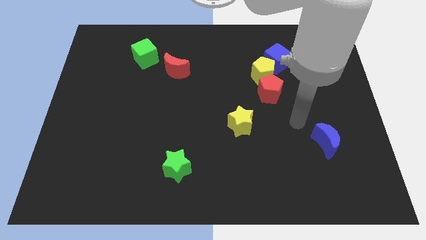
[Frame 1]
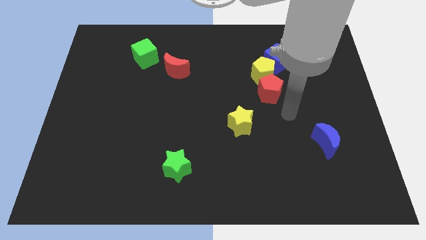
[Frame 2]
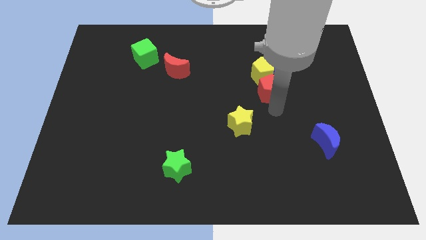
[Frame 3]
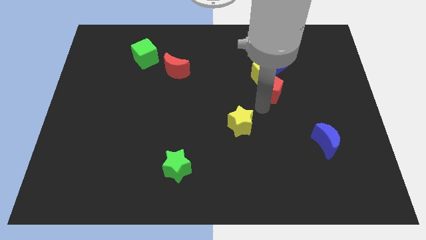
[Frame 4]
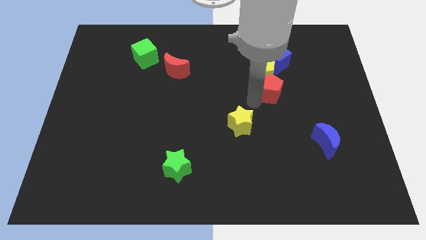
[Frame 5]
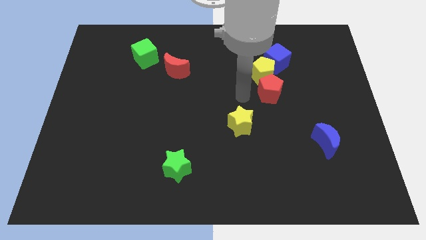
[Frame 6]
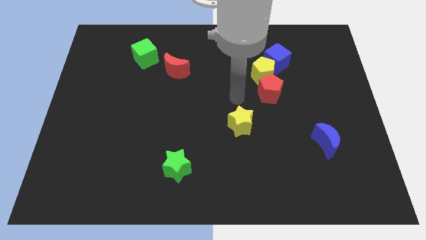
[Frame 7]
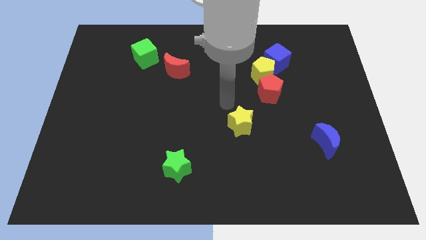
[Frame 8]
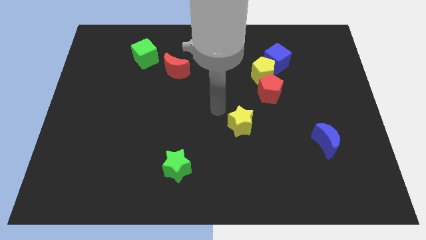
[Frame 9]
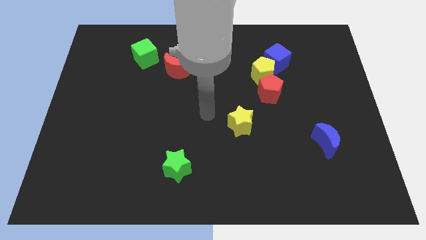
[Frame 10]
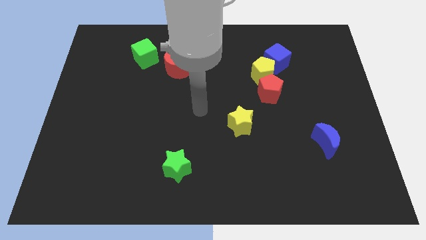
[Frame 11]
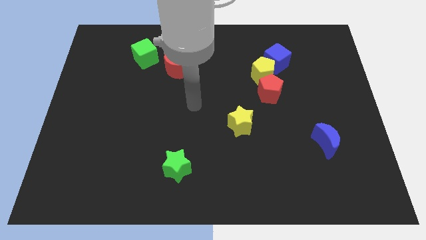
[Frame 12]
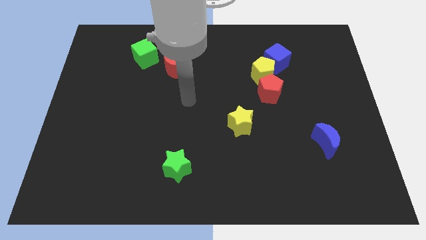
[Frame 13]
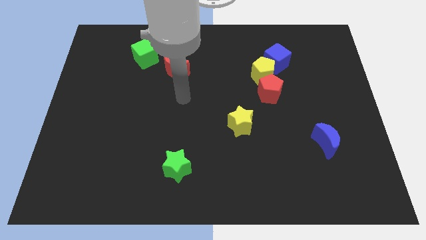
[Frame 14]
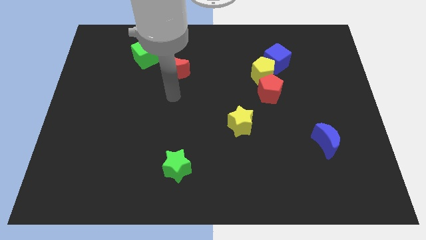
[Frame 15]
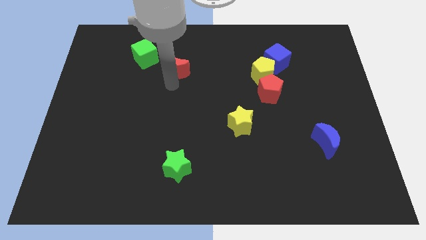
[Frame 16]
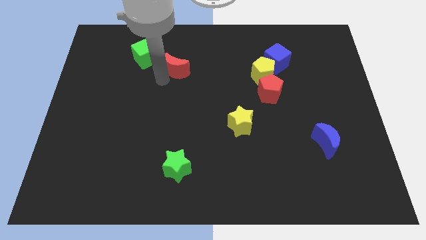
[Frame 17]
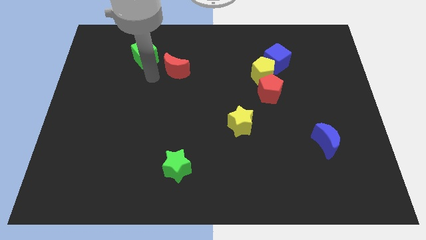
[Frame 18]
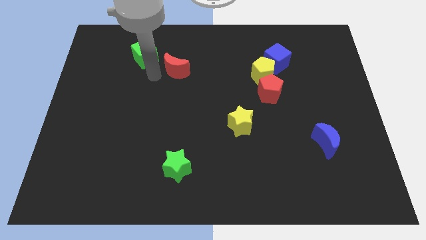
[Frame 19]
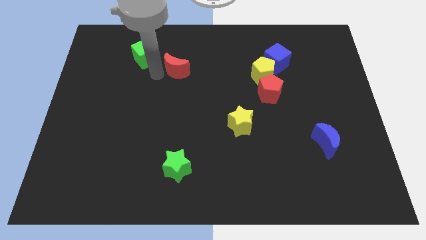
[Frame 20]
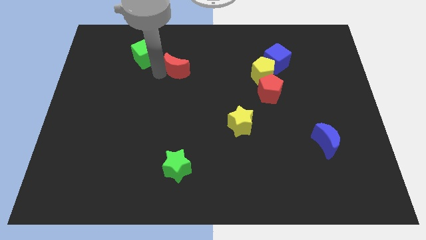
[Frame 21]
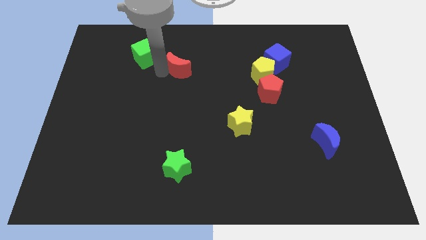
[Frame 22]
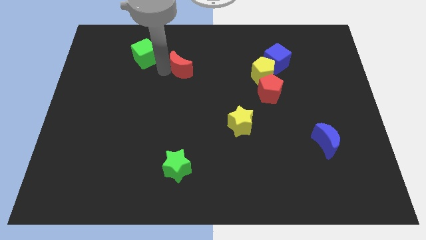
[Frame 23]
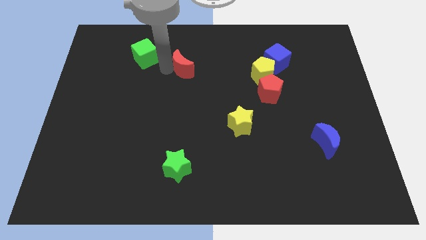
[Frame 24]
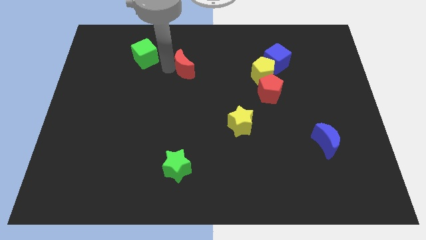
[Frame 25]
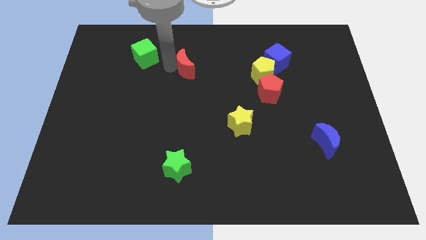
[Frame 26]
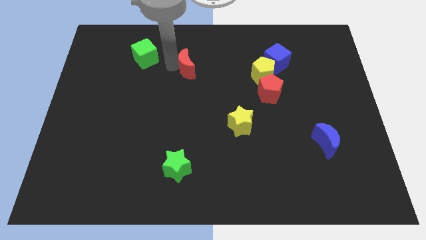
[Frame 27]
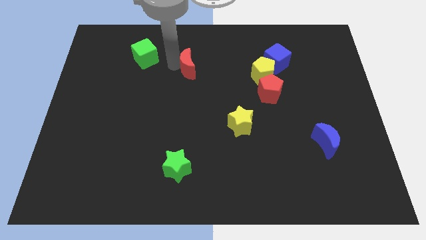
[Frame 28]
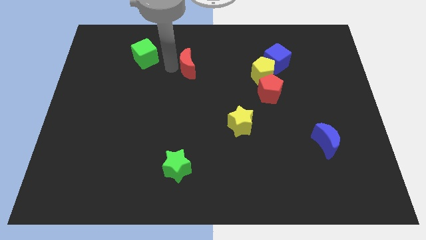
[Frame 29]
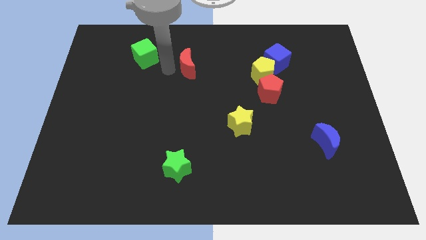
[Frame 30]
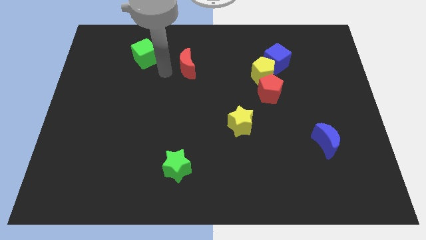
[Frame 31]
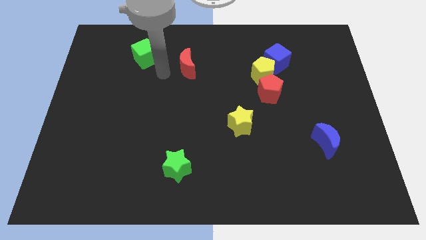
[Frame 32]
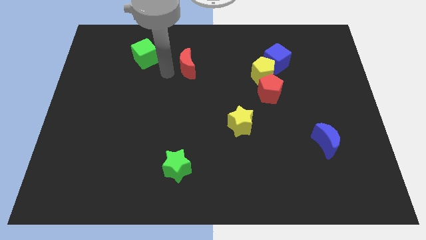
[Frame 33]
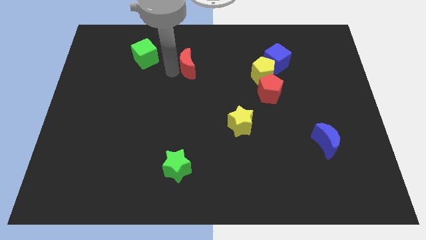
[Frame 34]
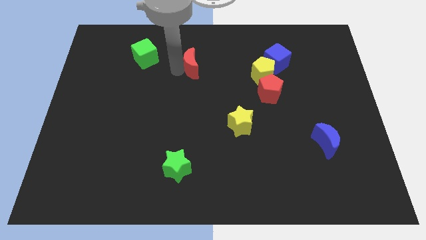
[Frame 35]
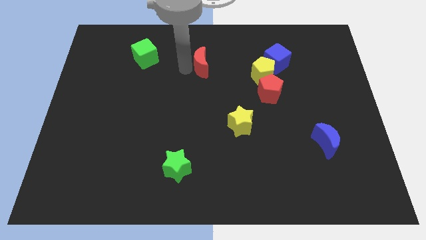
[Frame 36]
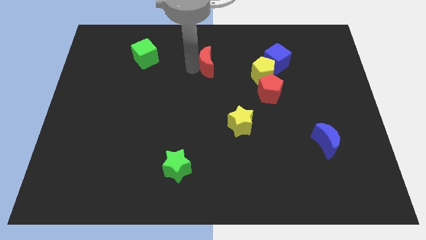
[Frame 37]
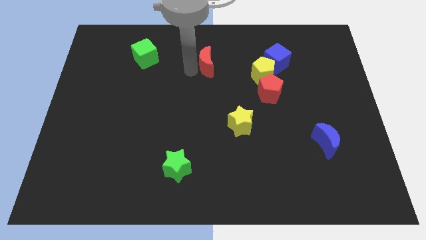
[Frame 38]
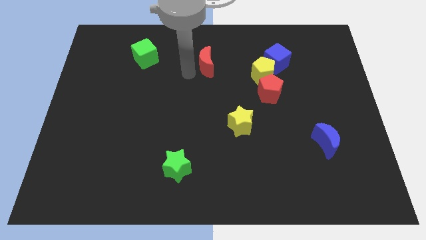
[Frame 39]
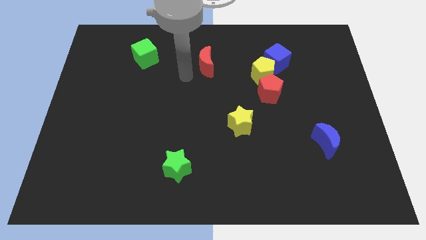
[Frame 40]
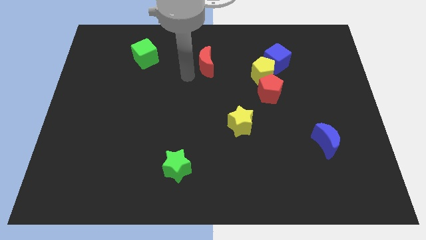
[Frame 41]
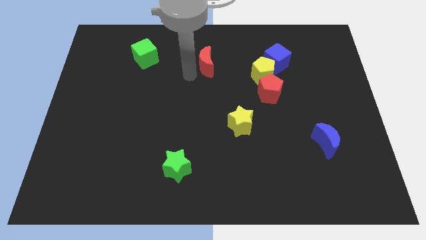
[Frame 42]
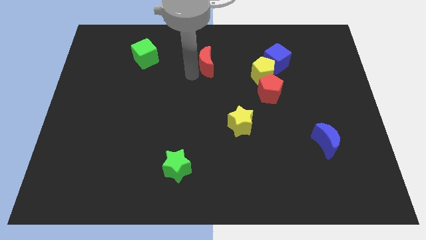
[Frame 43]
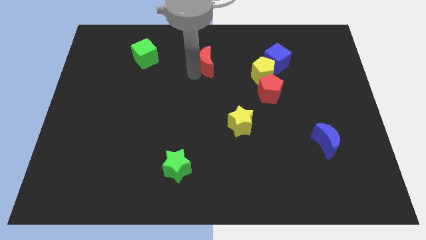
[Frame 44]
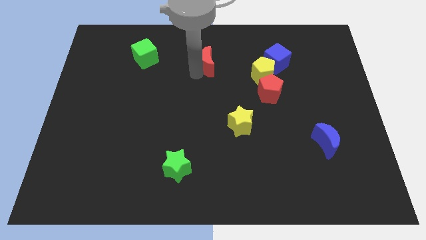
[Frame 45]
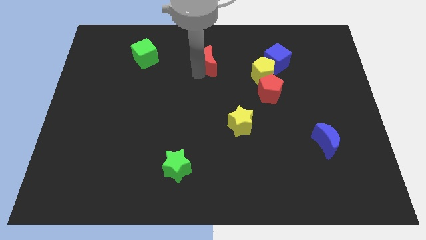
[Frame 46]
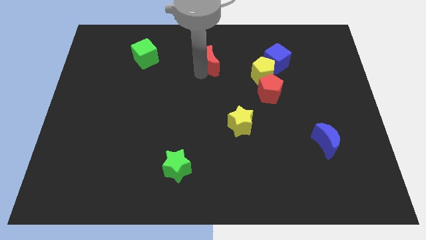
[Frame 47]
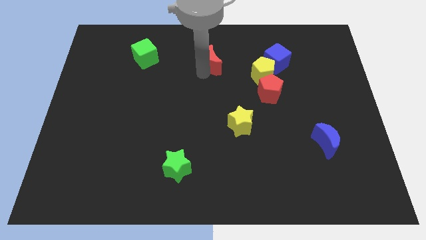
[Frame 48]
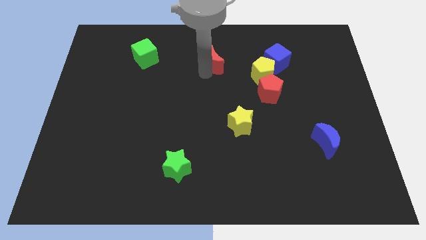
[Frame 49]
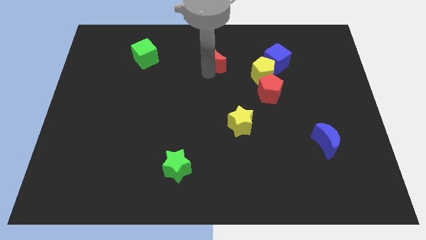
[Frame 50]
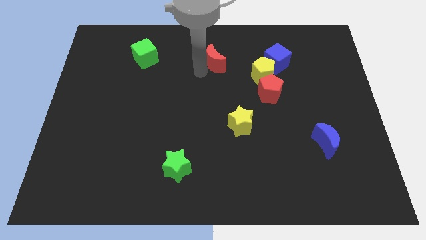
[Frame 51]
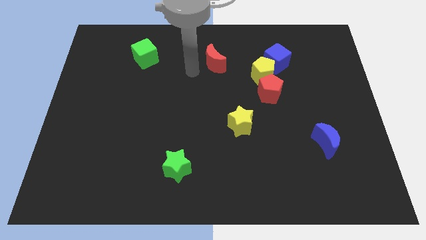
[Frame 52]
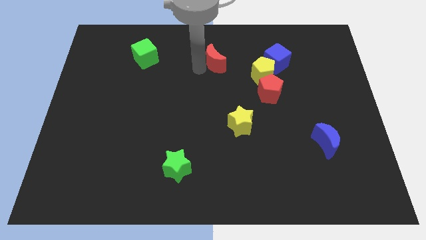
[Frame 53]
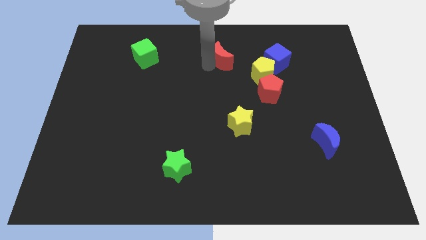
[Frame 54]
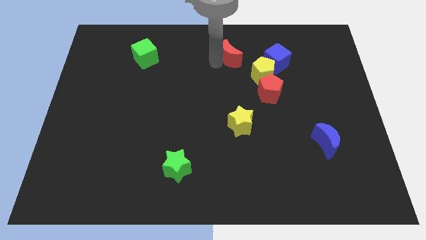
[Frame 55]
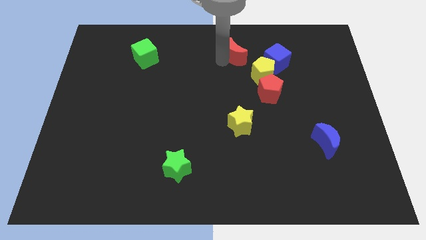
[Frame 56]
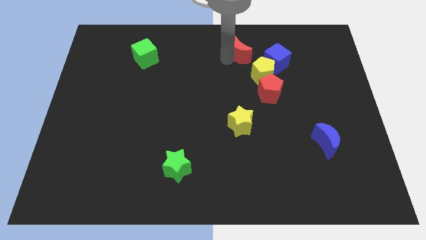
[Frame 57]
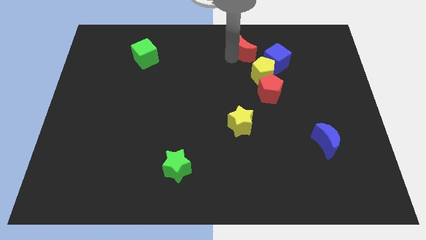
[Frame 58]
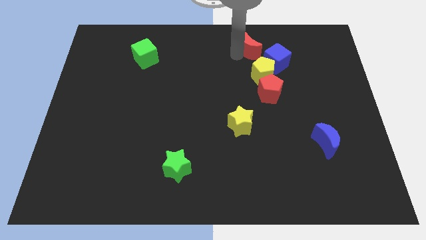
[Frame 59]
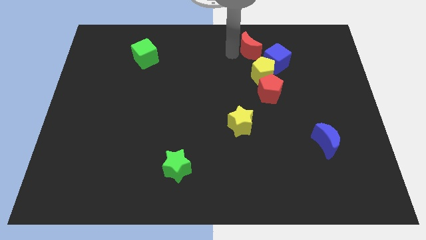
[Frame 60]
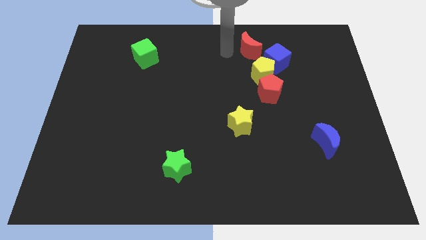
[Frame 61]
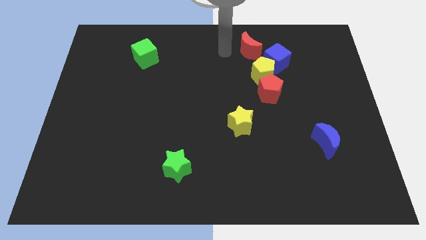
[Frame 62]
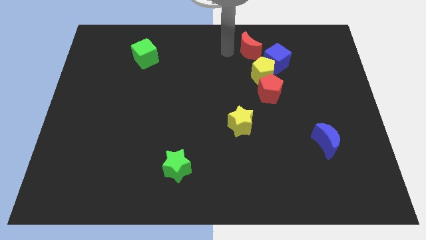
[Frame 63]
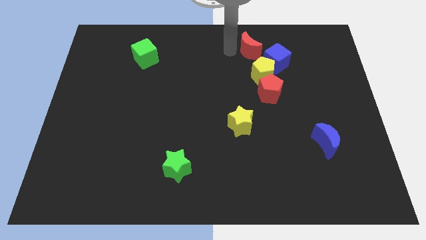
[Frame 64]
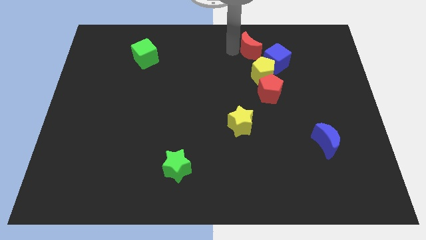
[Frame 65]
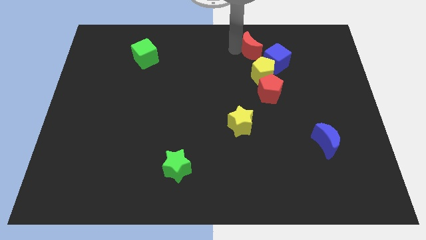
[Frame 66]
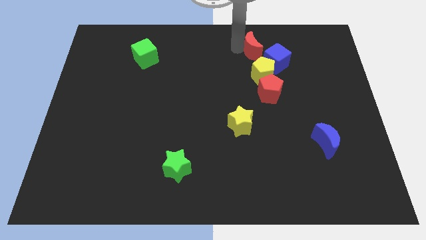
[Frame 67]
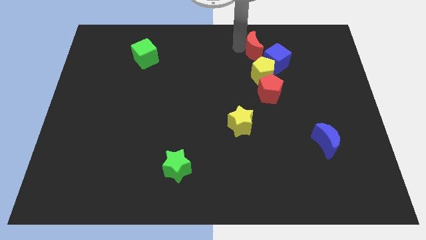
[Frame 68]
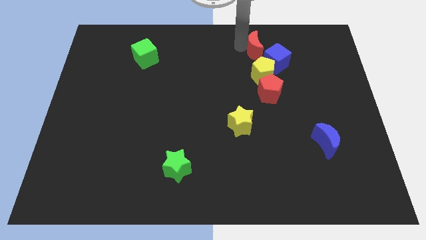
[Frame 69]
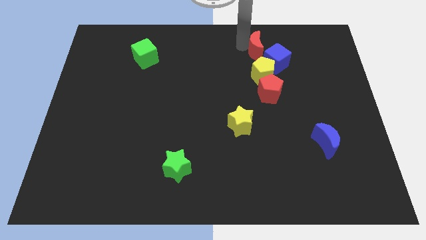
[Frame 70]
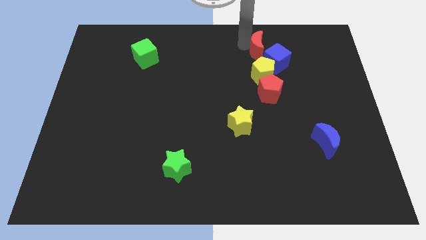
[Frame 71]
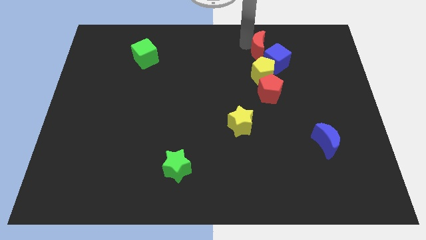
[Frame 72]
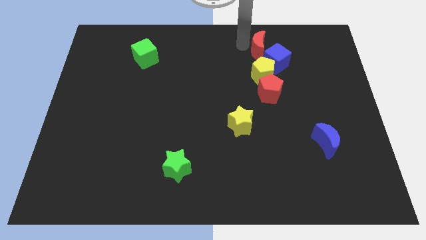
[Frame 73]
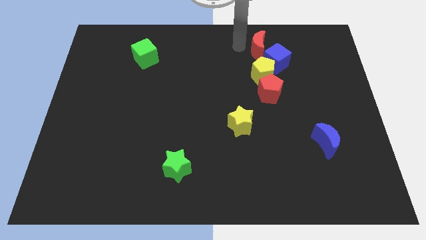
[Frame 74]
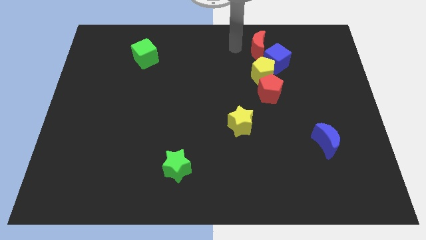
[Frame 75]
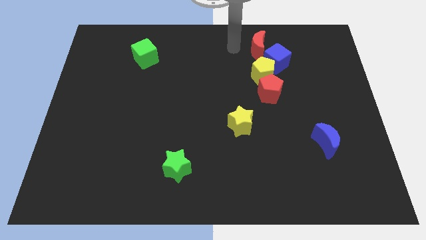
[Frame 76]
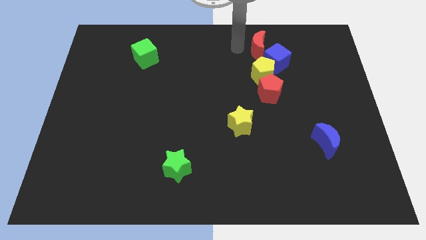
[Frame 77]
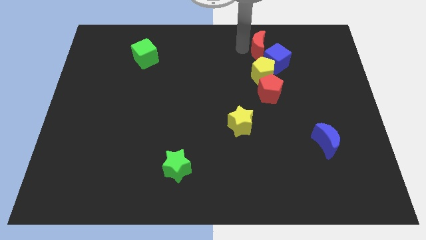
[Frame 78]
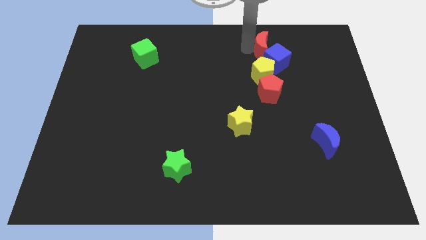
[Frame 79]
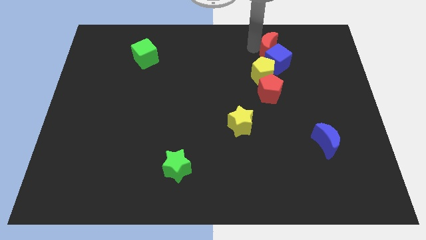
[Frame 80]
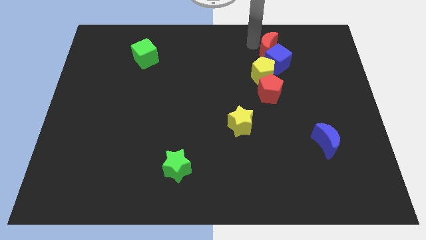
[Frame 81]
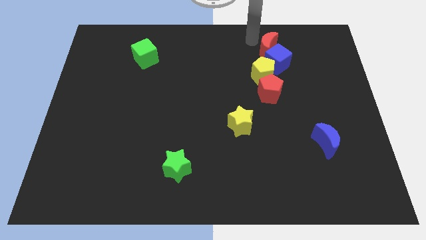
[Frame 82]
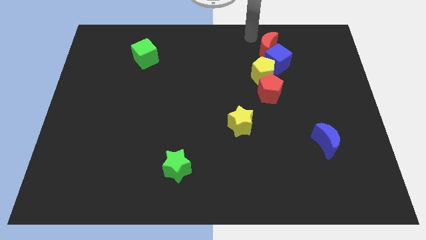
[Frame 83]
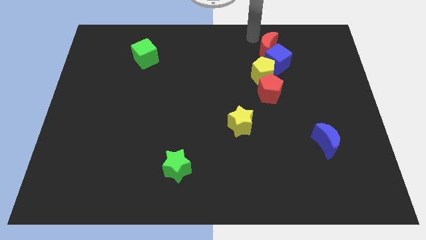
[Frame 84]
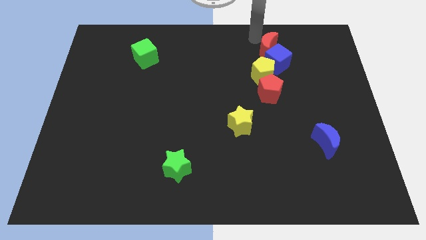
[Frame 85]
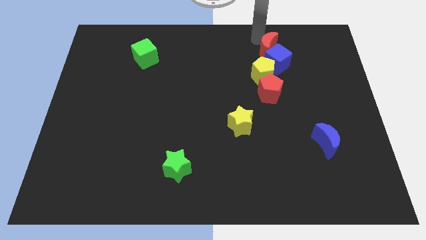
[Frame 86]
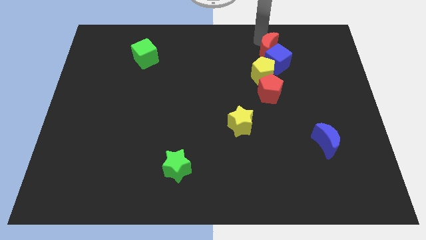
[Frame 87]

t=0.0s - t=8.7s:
push the red moon to the top right side of the yellow pentagon
